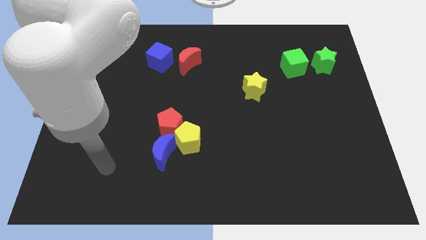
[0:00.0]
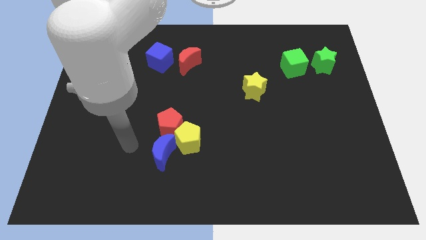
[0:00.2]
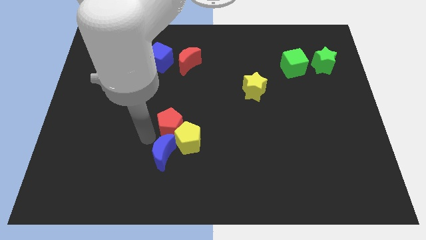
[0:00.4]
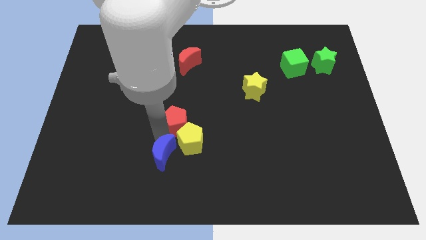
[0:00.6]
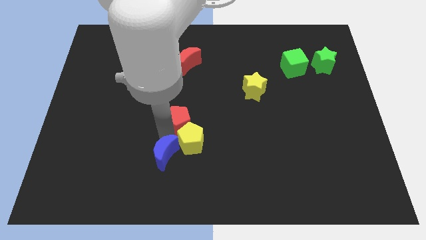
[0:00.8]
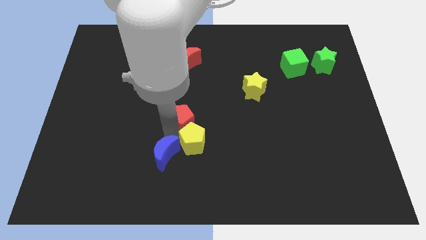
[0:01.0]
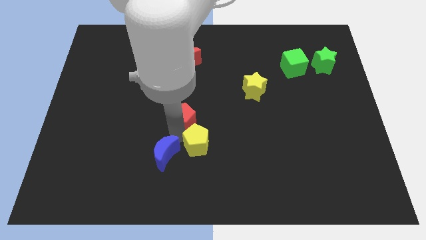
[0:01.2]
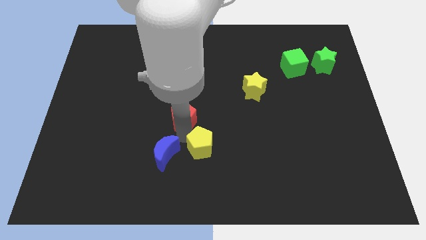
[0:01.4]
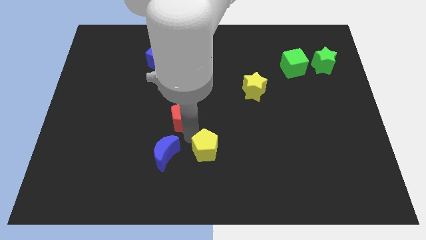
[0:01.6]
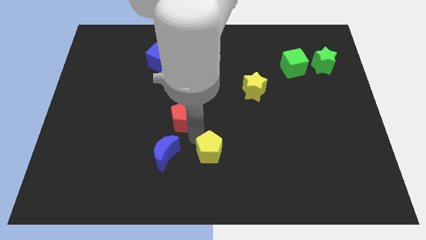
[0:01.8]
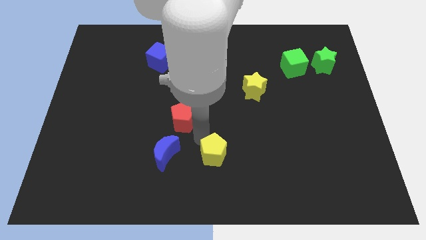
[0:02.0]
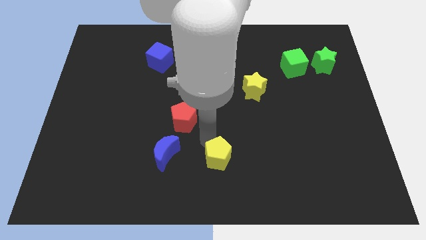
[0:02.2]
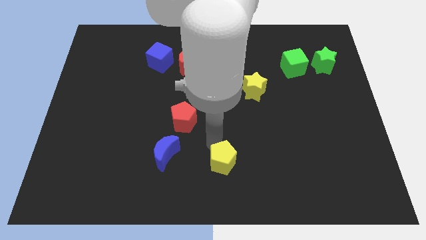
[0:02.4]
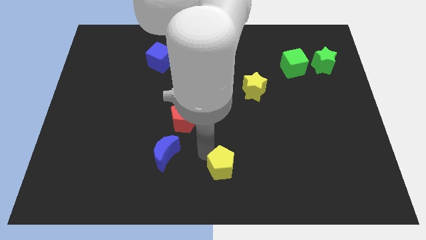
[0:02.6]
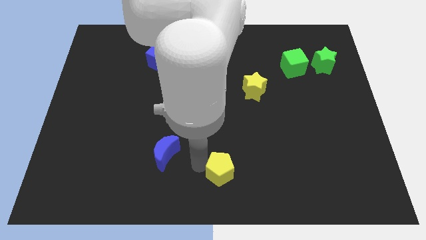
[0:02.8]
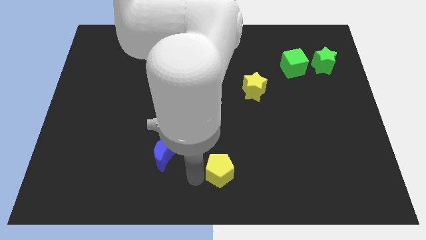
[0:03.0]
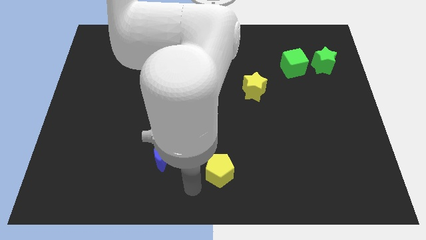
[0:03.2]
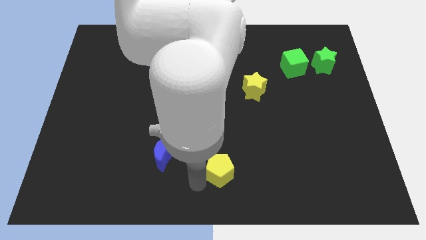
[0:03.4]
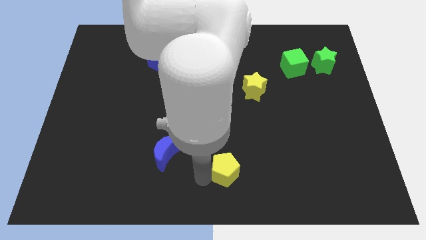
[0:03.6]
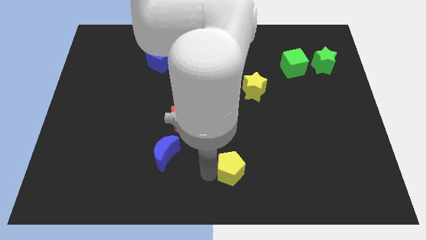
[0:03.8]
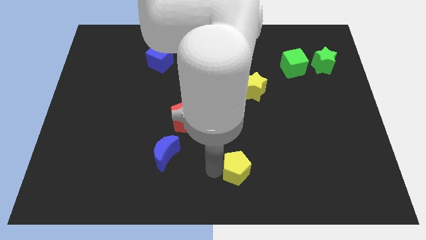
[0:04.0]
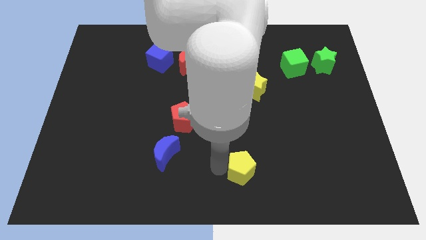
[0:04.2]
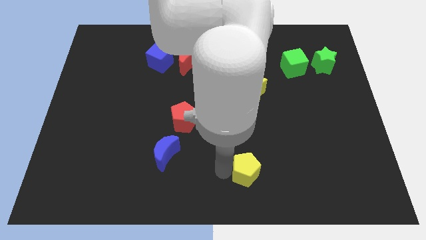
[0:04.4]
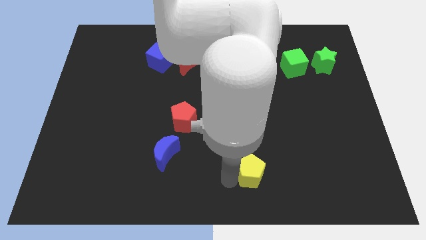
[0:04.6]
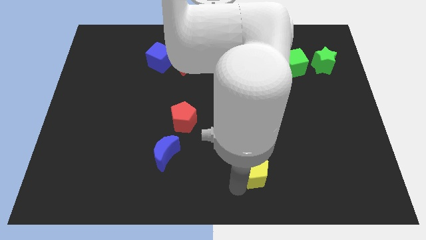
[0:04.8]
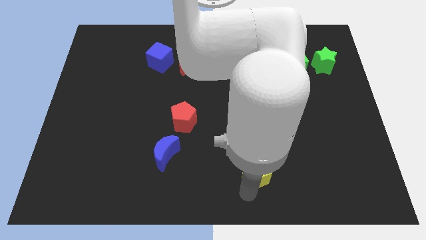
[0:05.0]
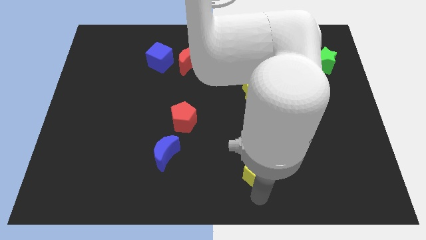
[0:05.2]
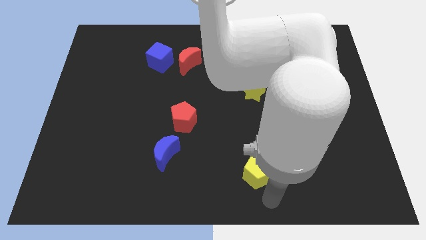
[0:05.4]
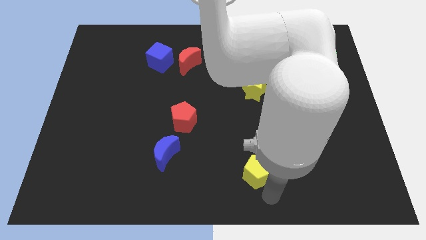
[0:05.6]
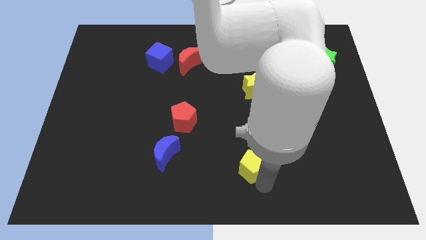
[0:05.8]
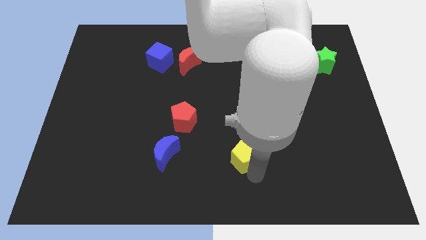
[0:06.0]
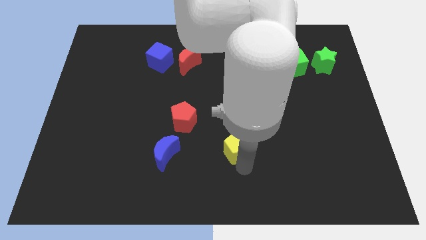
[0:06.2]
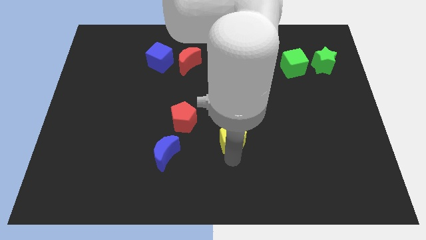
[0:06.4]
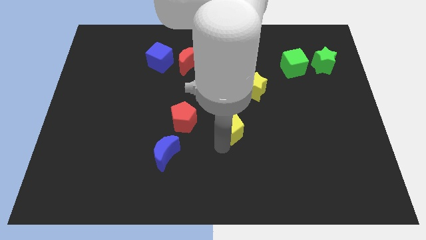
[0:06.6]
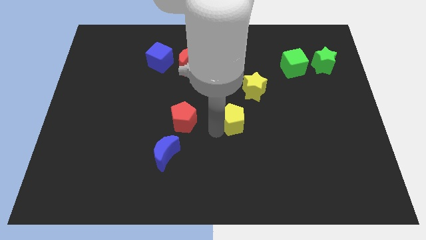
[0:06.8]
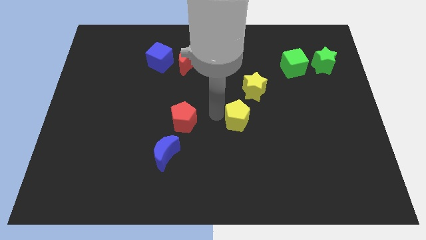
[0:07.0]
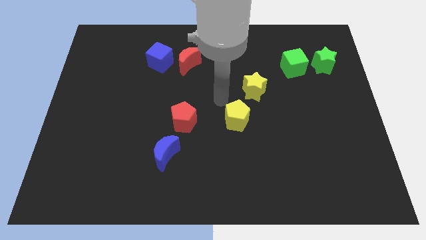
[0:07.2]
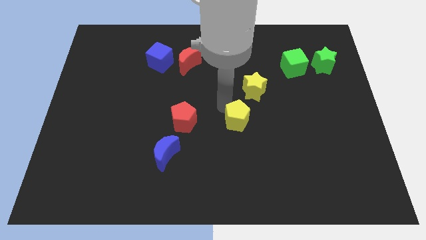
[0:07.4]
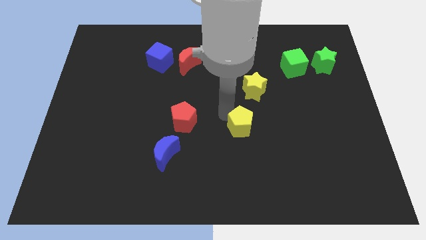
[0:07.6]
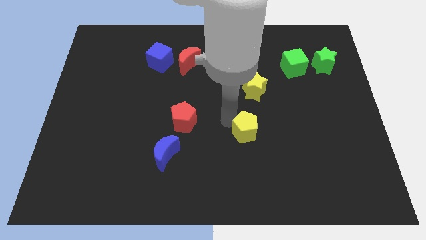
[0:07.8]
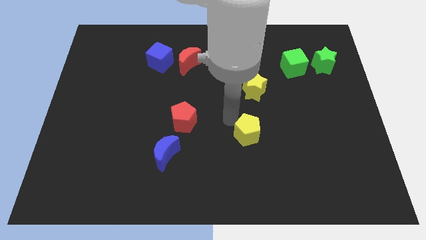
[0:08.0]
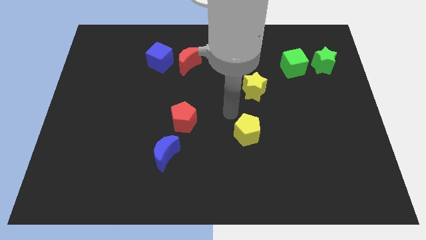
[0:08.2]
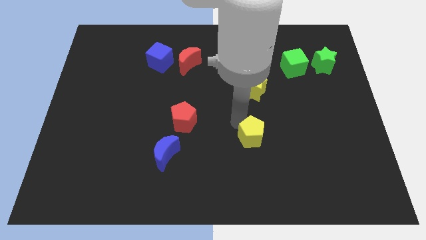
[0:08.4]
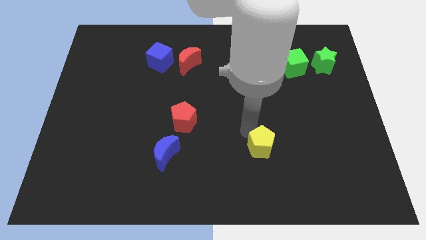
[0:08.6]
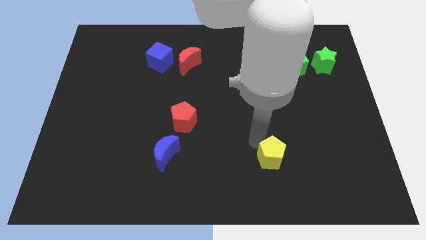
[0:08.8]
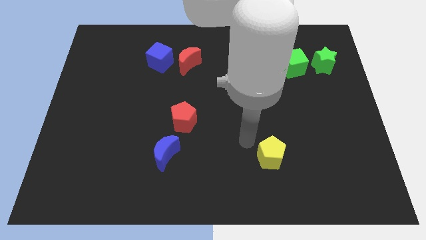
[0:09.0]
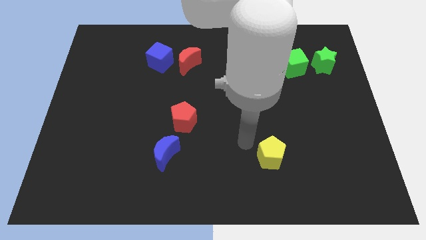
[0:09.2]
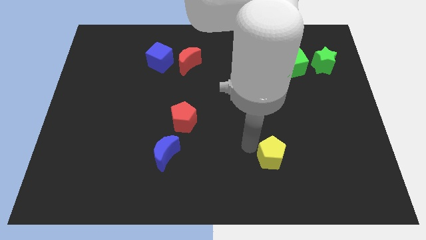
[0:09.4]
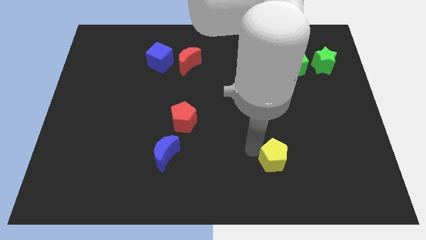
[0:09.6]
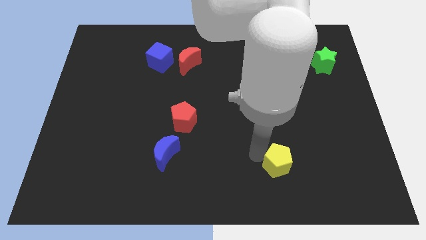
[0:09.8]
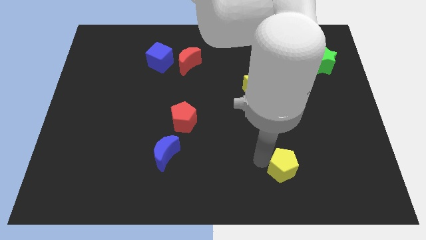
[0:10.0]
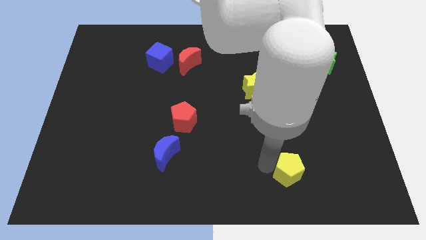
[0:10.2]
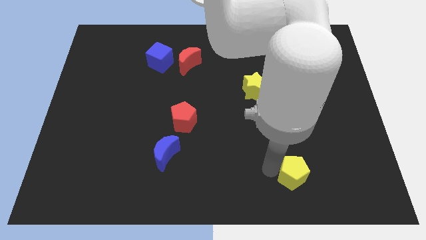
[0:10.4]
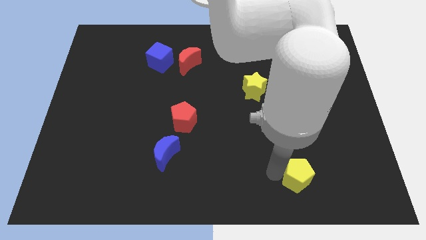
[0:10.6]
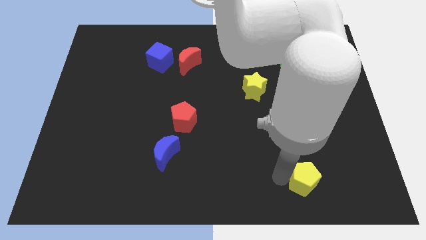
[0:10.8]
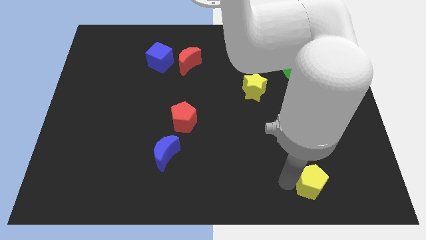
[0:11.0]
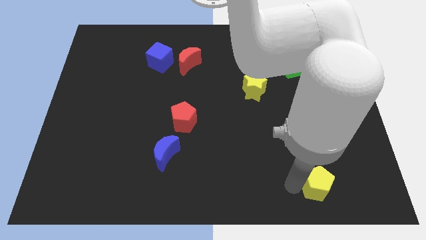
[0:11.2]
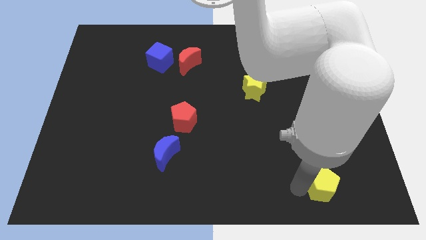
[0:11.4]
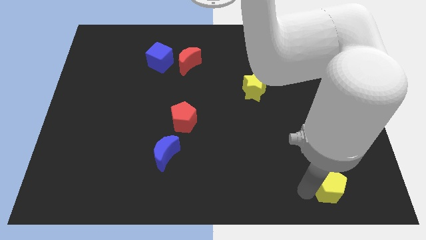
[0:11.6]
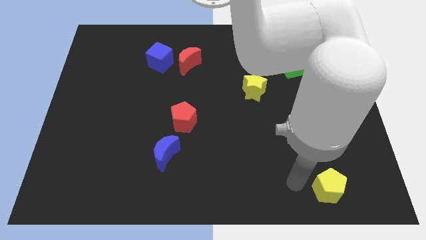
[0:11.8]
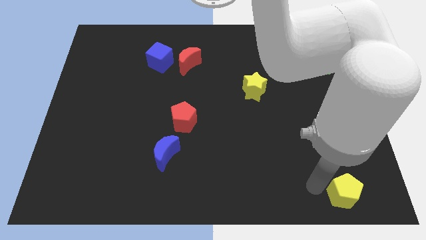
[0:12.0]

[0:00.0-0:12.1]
put the yellow pentagon to the bottom right
